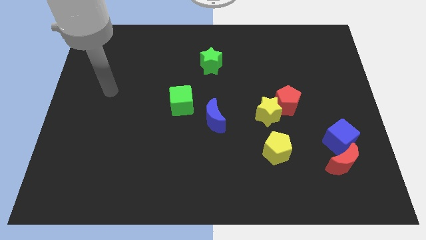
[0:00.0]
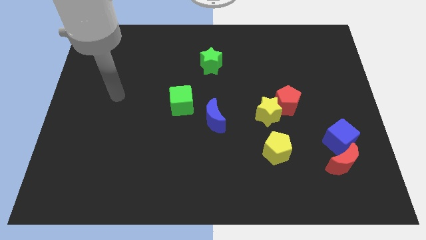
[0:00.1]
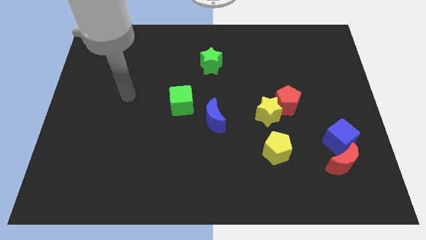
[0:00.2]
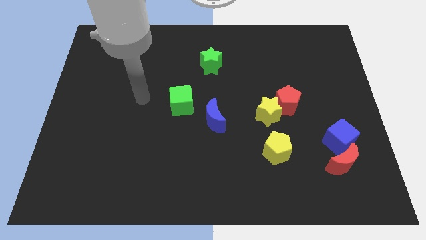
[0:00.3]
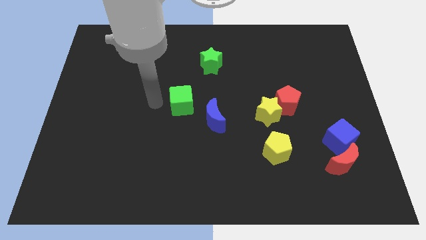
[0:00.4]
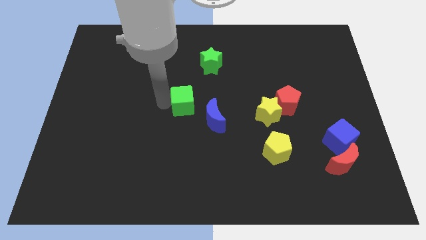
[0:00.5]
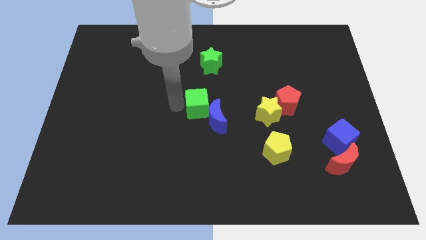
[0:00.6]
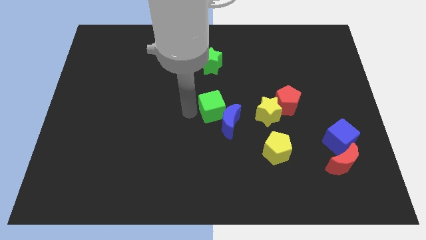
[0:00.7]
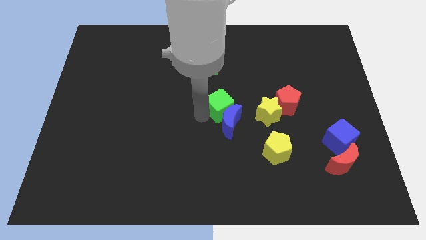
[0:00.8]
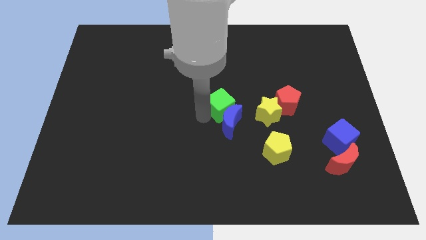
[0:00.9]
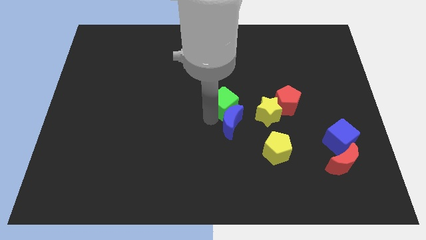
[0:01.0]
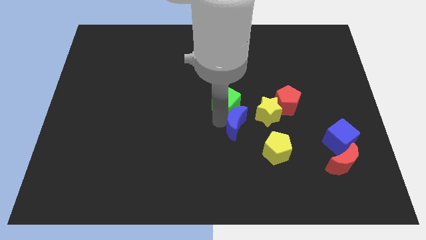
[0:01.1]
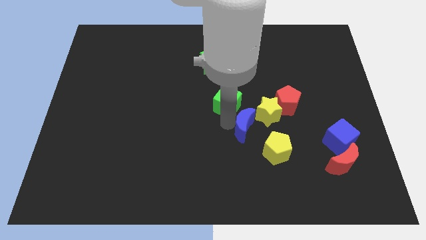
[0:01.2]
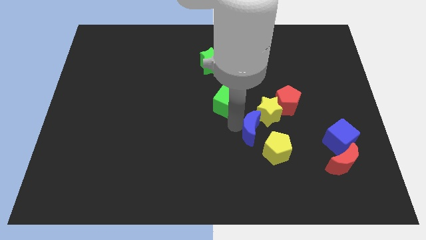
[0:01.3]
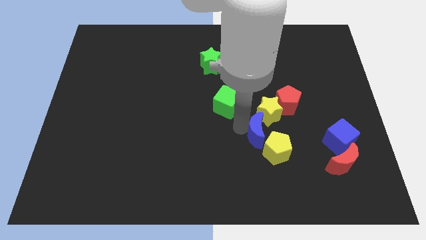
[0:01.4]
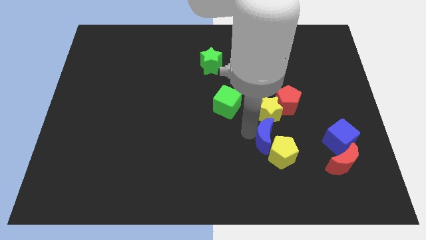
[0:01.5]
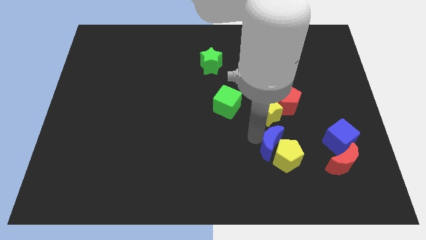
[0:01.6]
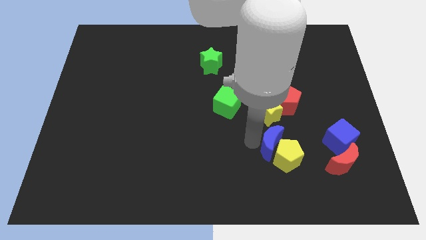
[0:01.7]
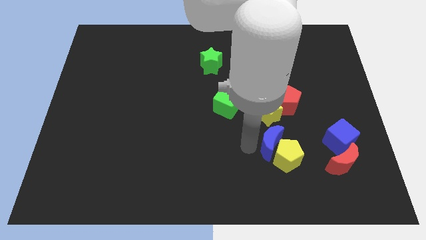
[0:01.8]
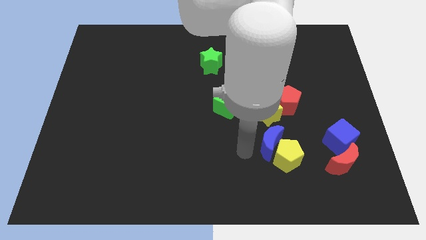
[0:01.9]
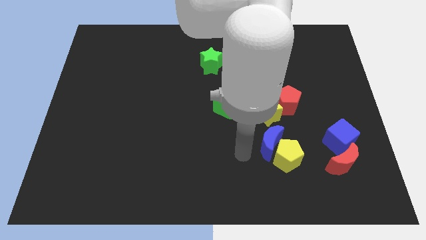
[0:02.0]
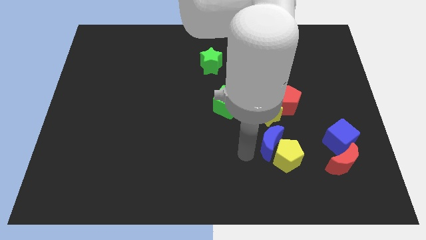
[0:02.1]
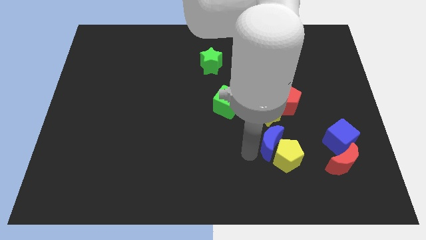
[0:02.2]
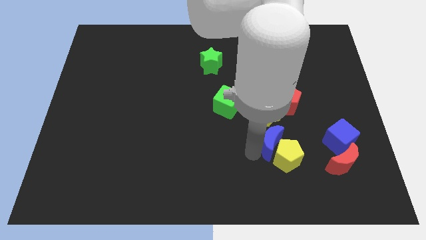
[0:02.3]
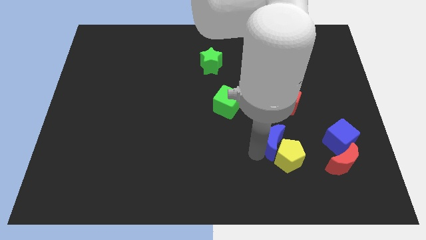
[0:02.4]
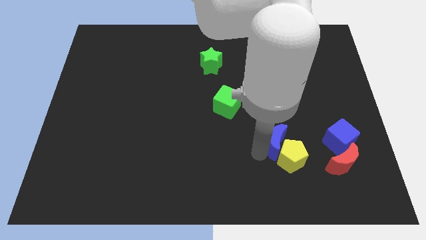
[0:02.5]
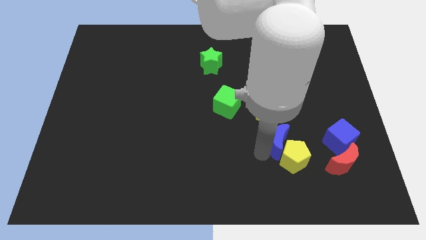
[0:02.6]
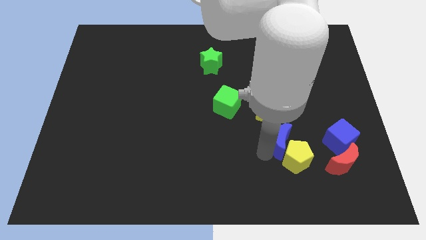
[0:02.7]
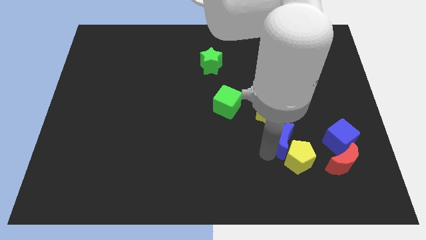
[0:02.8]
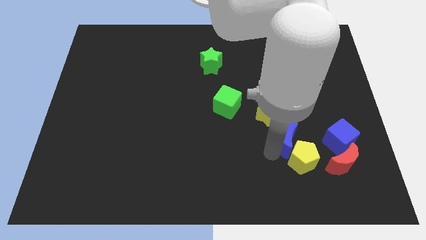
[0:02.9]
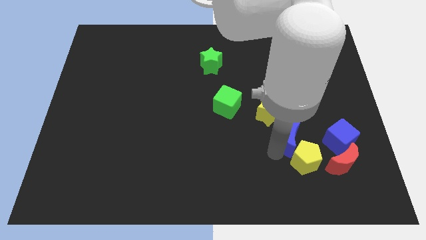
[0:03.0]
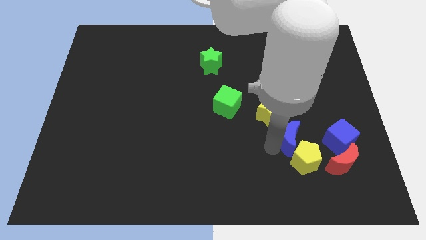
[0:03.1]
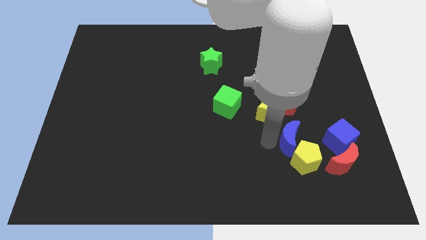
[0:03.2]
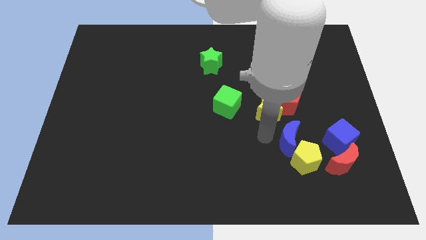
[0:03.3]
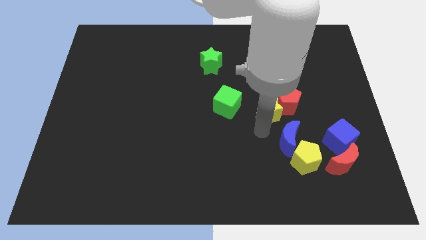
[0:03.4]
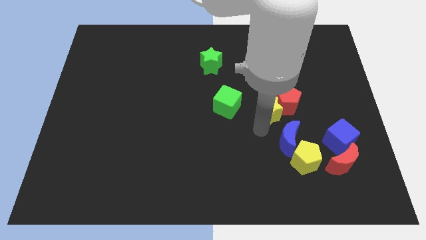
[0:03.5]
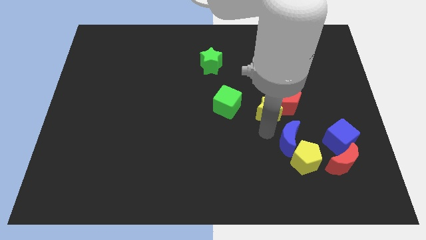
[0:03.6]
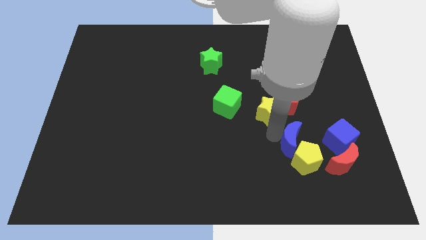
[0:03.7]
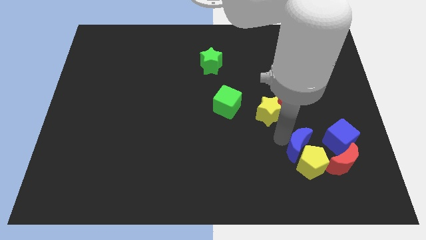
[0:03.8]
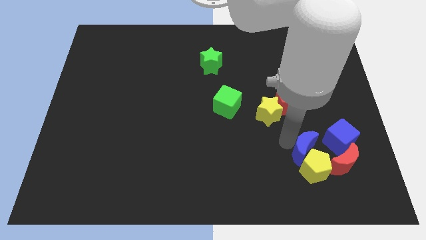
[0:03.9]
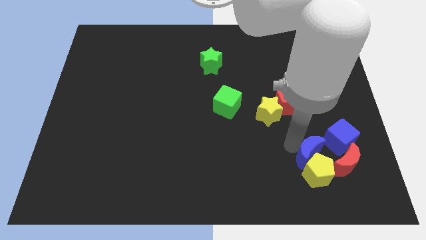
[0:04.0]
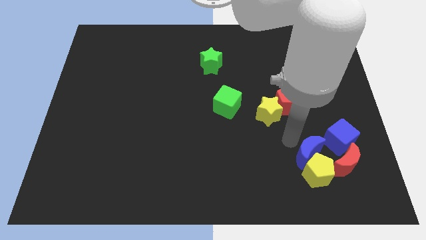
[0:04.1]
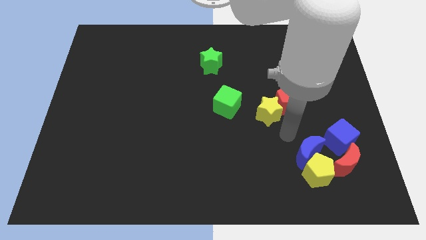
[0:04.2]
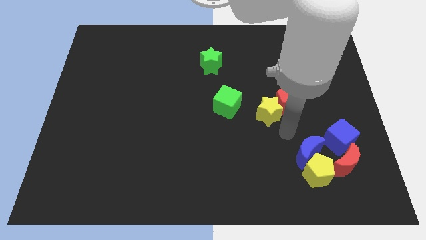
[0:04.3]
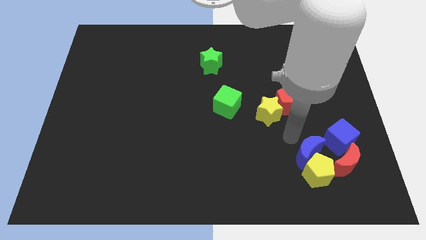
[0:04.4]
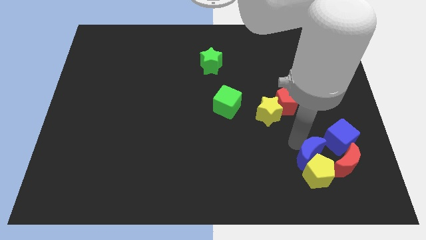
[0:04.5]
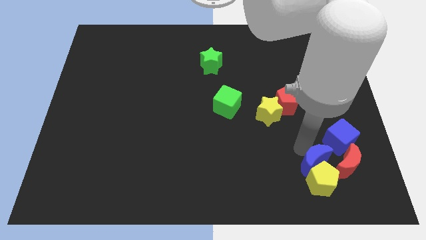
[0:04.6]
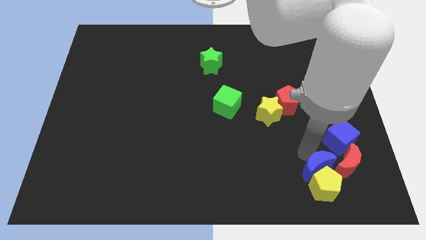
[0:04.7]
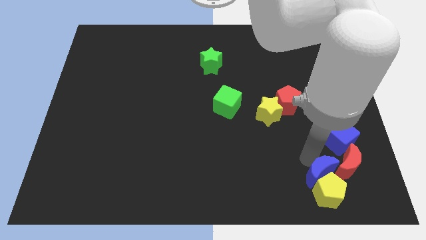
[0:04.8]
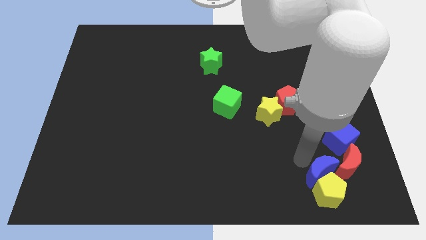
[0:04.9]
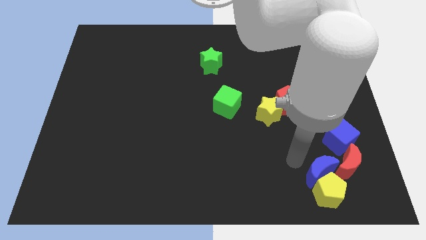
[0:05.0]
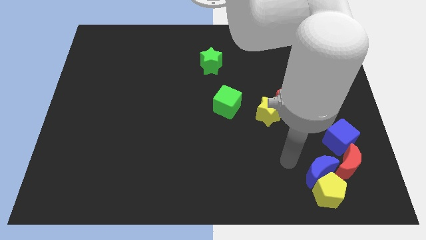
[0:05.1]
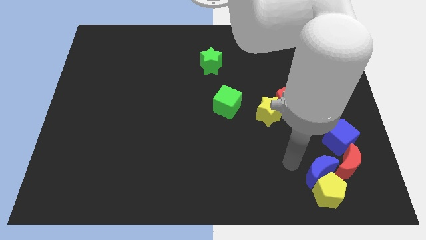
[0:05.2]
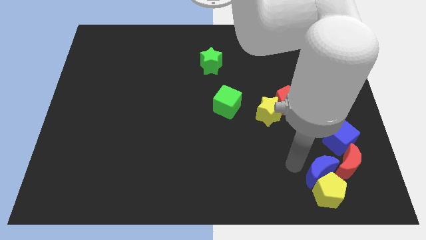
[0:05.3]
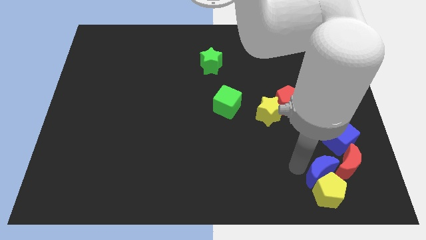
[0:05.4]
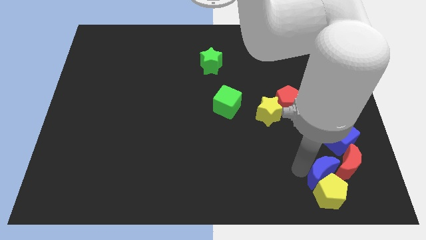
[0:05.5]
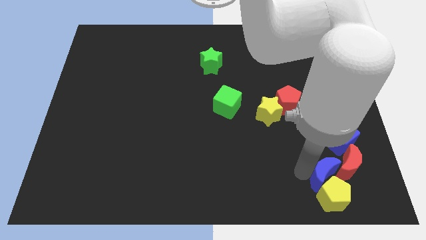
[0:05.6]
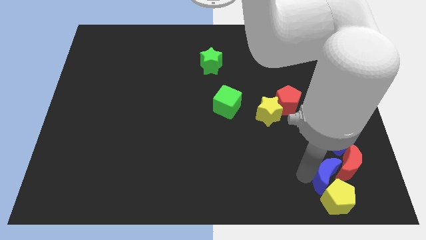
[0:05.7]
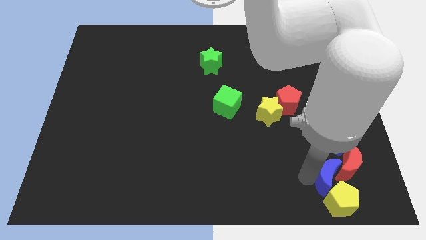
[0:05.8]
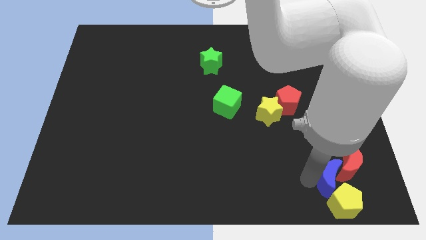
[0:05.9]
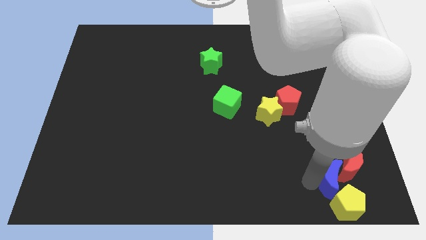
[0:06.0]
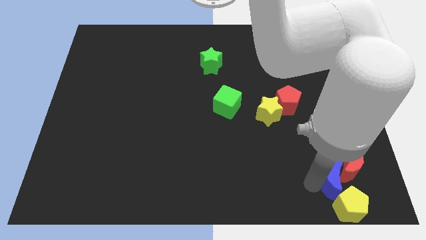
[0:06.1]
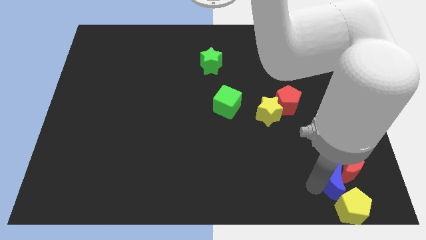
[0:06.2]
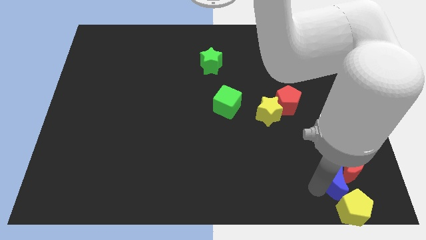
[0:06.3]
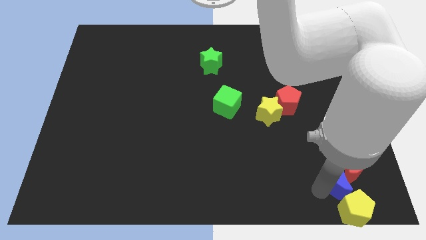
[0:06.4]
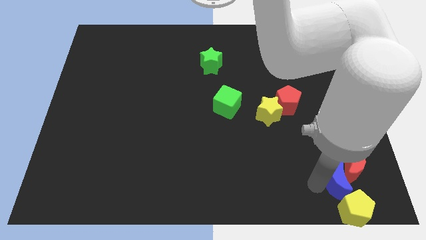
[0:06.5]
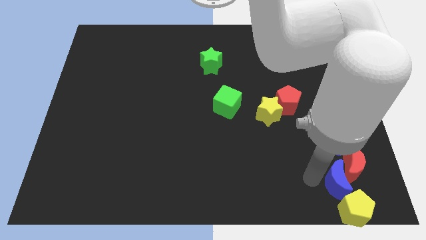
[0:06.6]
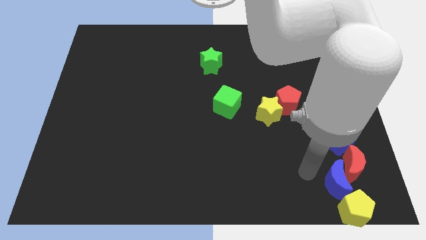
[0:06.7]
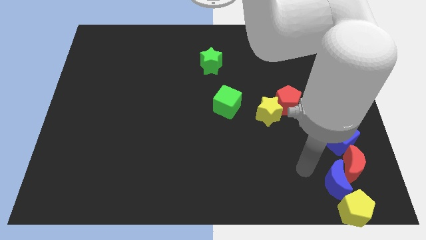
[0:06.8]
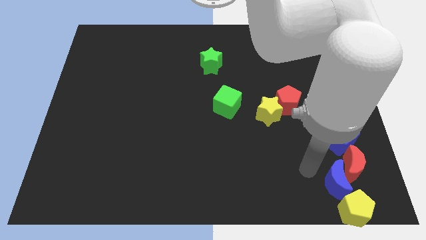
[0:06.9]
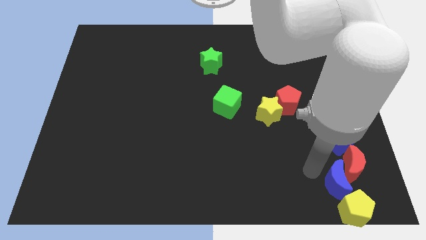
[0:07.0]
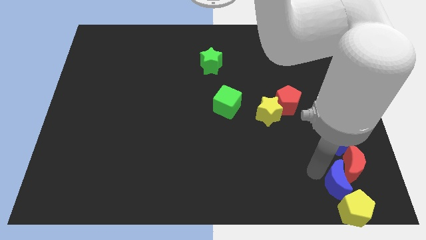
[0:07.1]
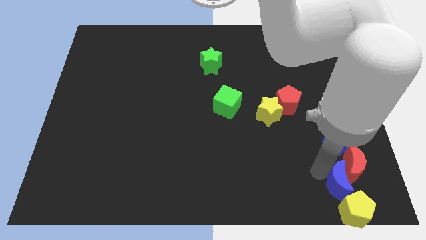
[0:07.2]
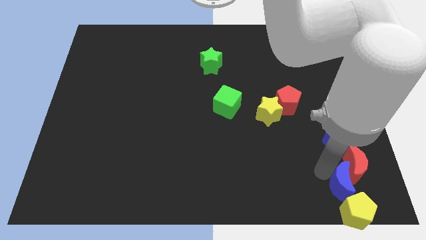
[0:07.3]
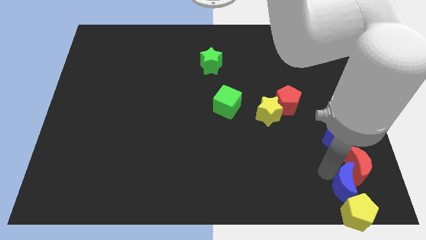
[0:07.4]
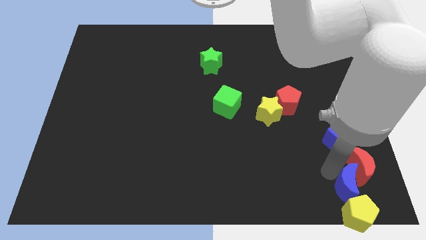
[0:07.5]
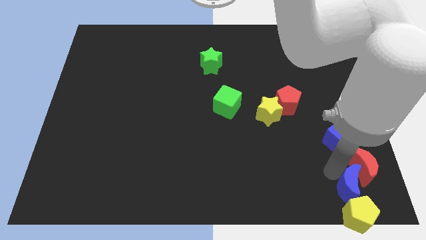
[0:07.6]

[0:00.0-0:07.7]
slide the blue moon to the bottom right corner
